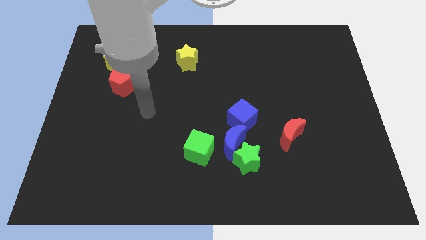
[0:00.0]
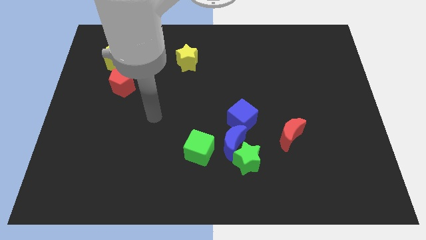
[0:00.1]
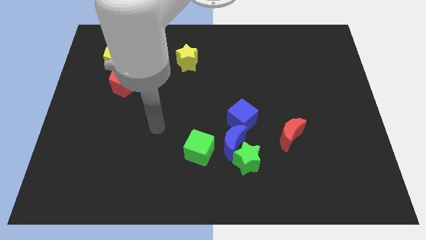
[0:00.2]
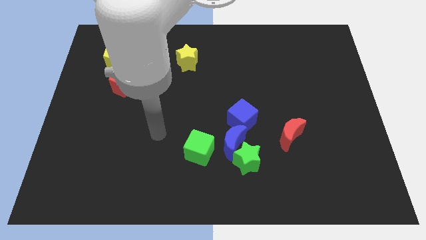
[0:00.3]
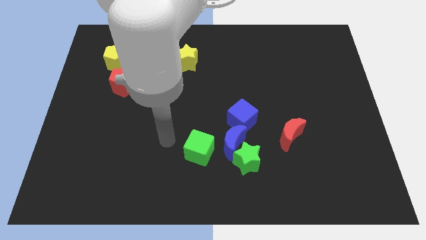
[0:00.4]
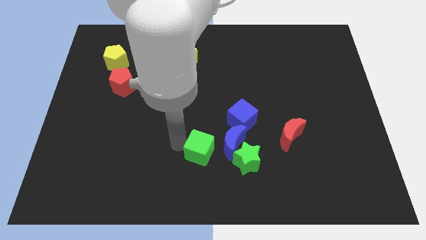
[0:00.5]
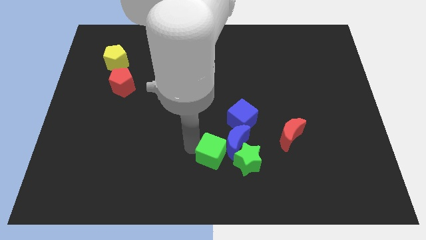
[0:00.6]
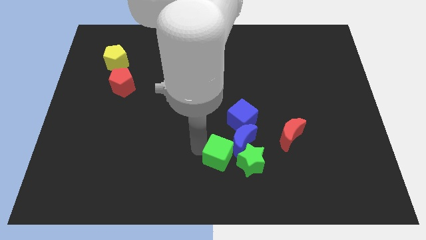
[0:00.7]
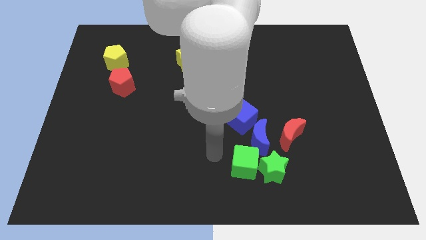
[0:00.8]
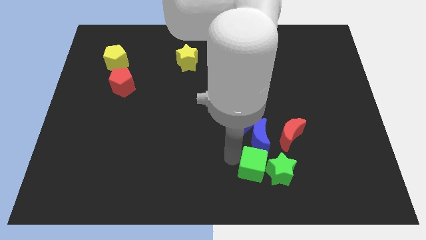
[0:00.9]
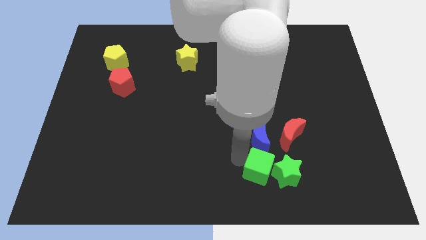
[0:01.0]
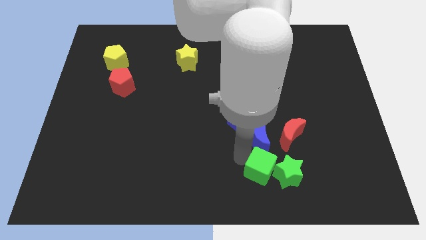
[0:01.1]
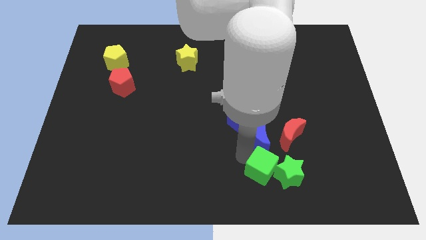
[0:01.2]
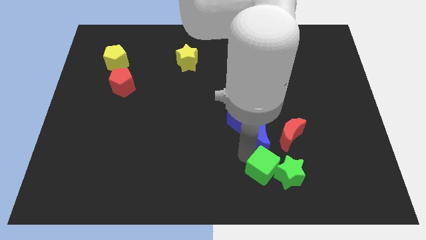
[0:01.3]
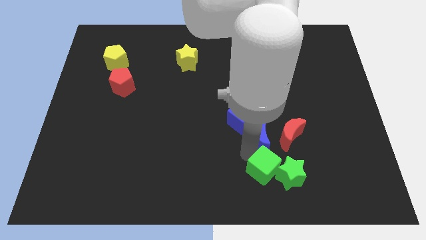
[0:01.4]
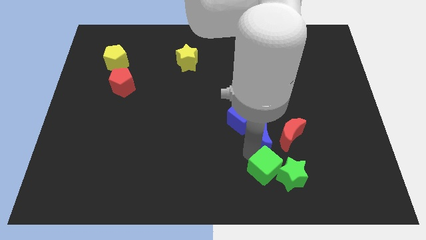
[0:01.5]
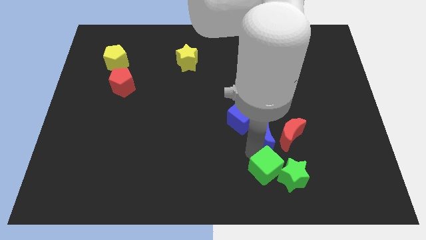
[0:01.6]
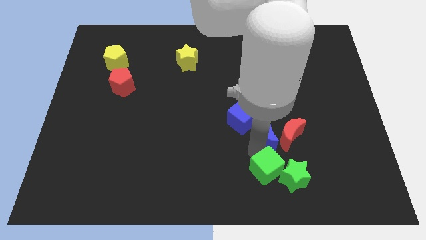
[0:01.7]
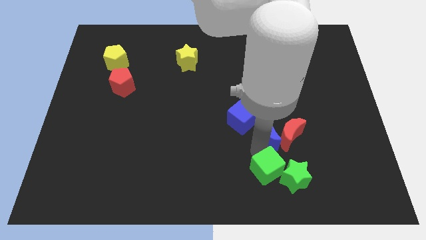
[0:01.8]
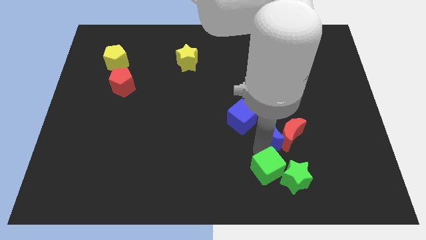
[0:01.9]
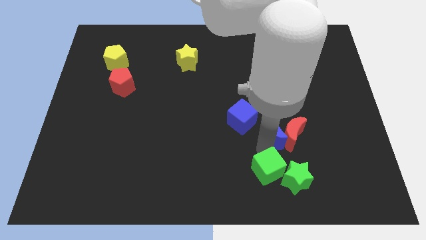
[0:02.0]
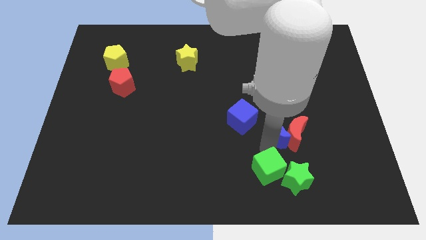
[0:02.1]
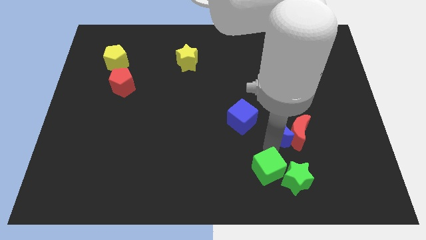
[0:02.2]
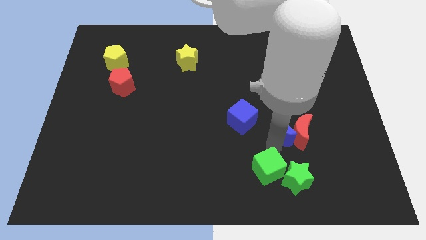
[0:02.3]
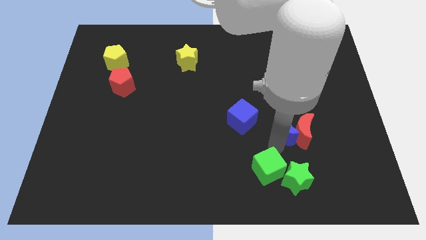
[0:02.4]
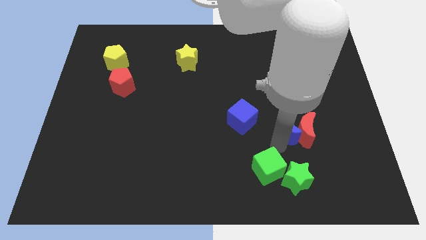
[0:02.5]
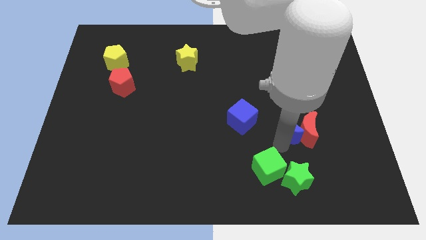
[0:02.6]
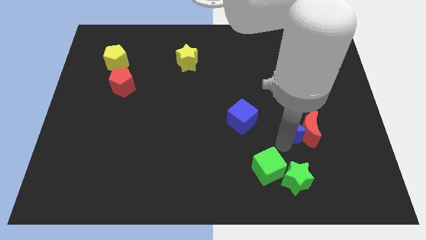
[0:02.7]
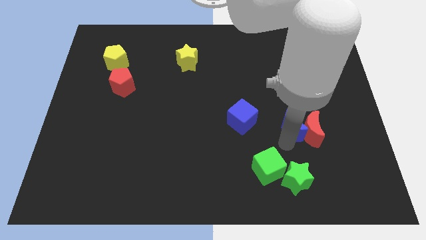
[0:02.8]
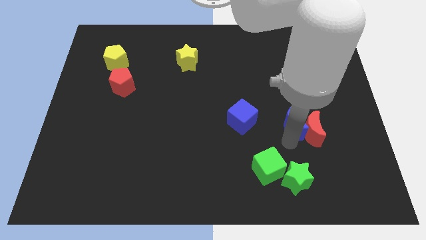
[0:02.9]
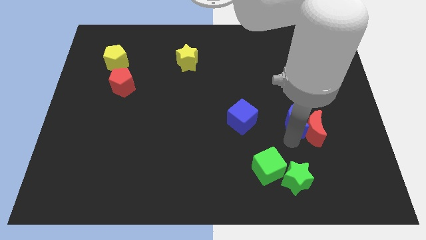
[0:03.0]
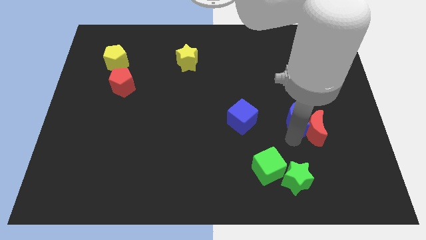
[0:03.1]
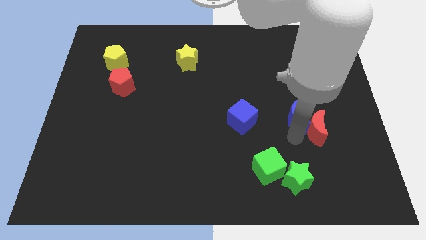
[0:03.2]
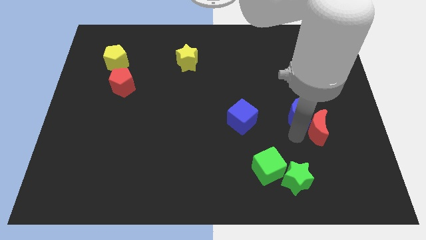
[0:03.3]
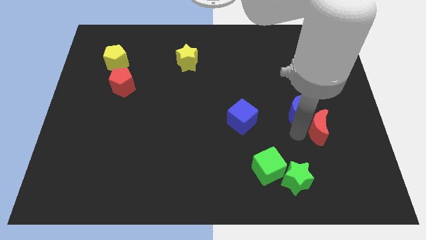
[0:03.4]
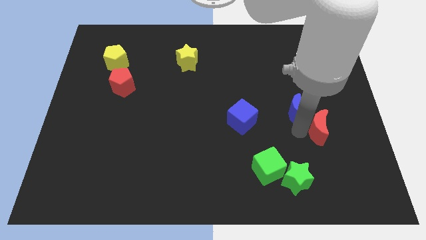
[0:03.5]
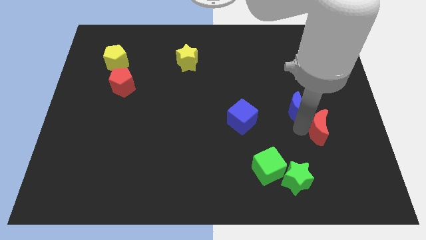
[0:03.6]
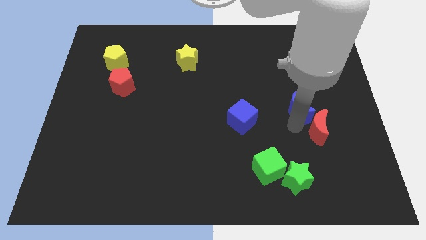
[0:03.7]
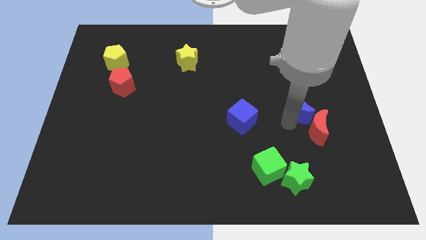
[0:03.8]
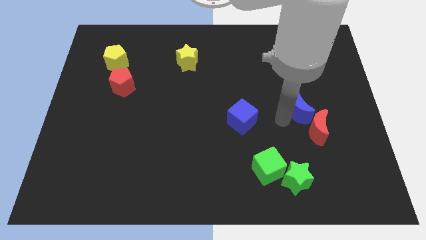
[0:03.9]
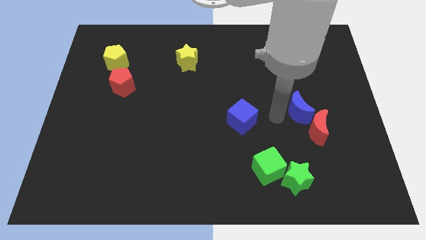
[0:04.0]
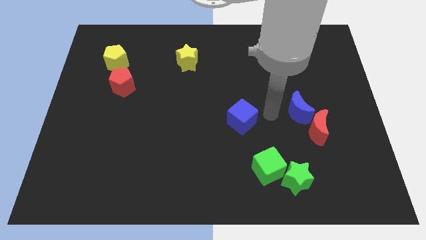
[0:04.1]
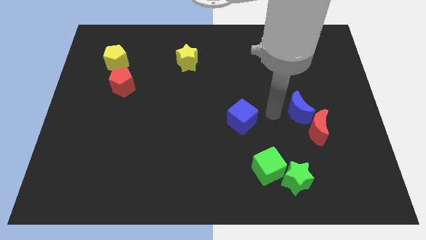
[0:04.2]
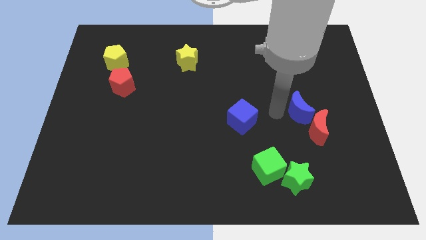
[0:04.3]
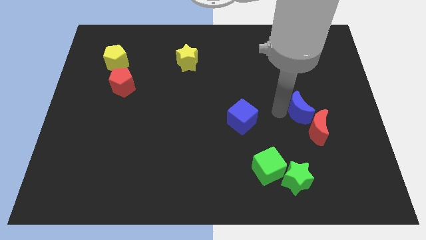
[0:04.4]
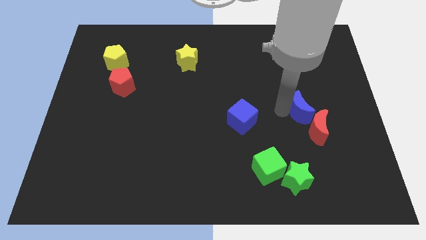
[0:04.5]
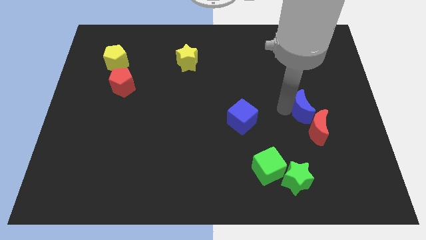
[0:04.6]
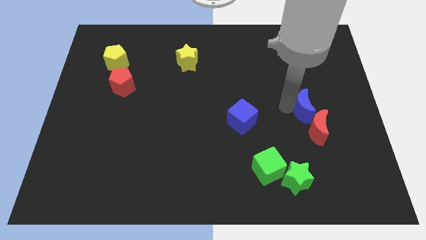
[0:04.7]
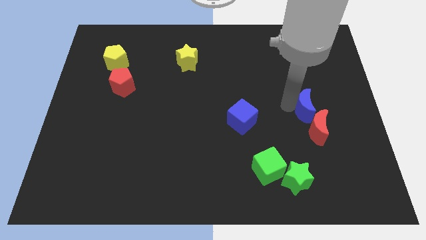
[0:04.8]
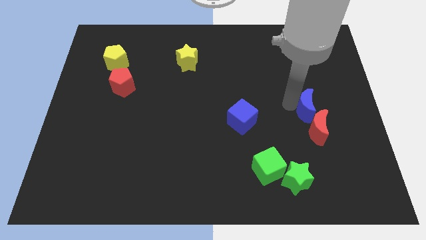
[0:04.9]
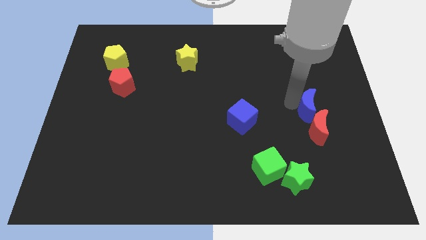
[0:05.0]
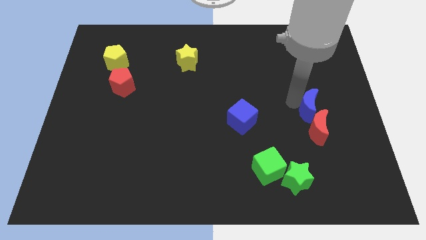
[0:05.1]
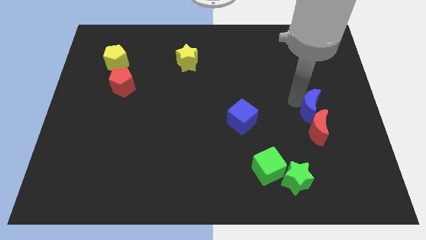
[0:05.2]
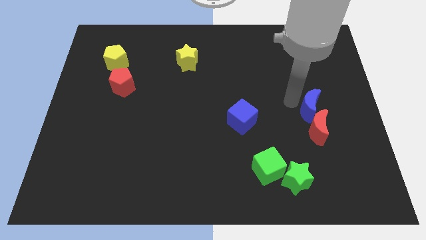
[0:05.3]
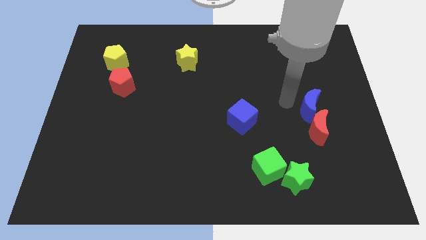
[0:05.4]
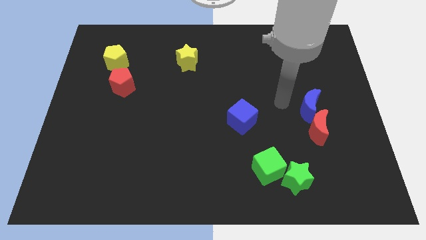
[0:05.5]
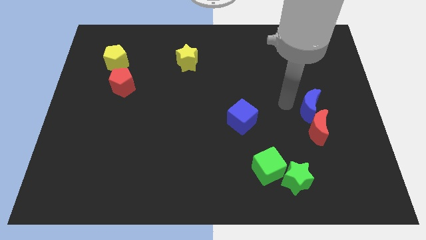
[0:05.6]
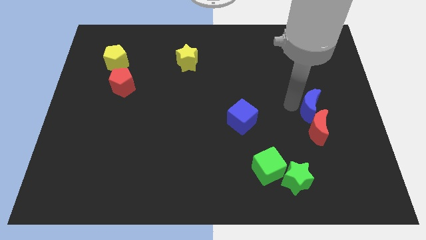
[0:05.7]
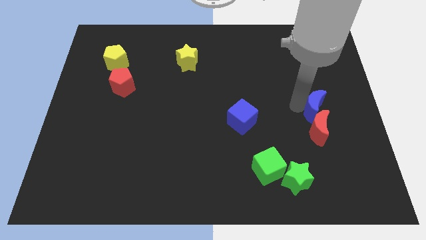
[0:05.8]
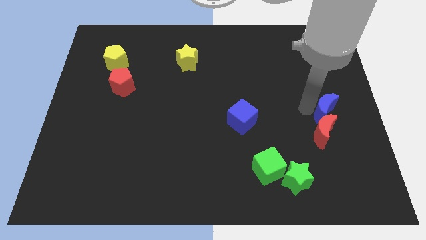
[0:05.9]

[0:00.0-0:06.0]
move the blue moon to the center right
